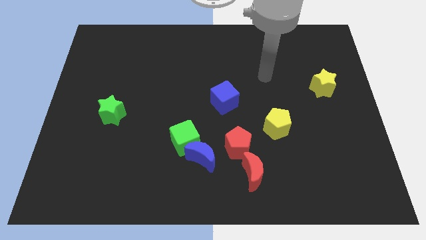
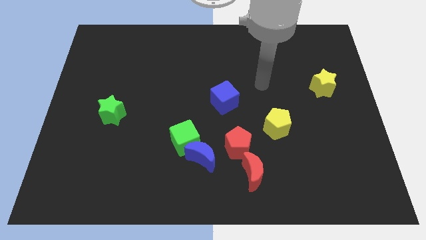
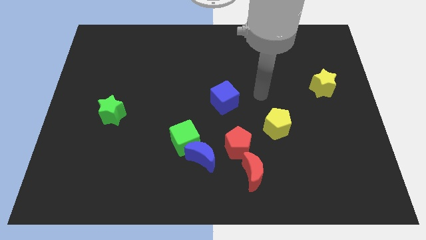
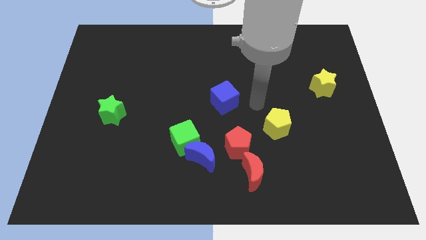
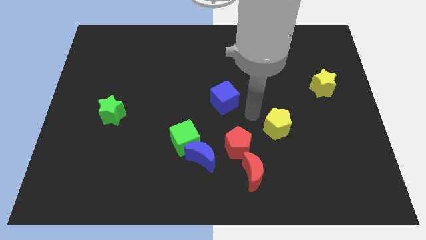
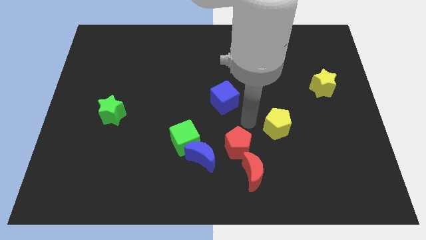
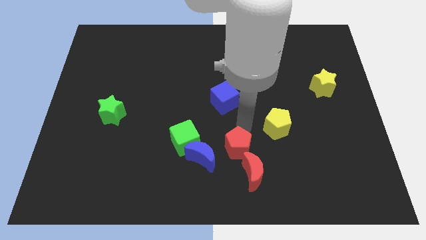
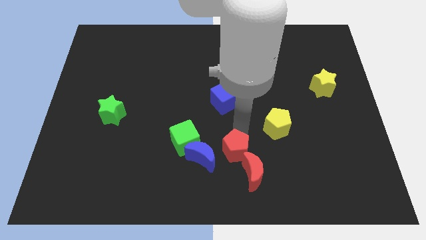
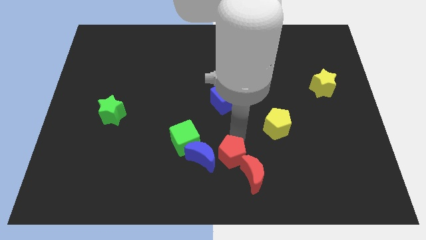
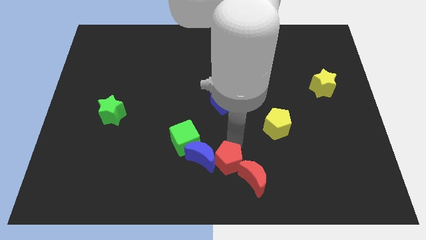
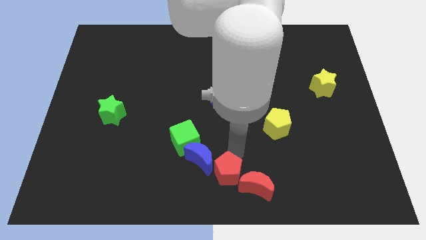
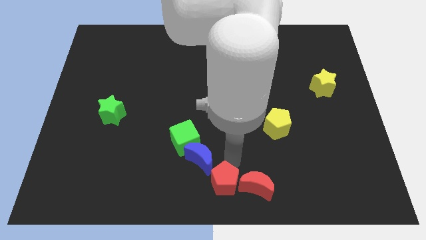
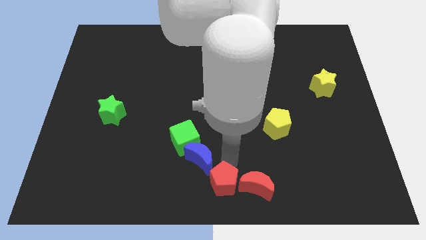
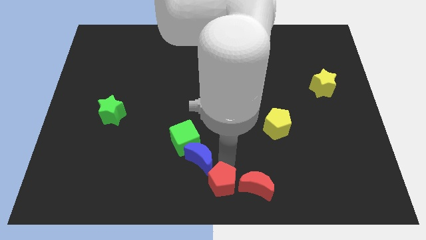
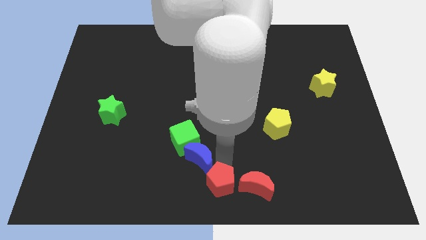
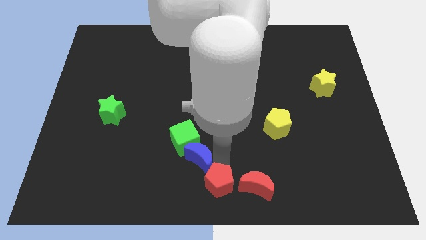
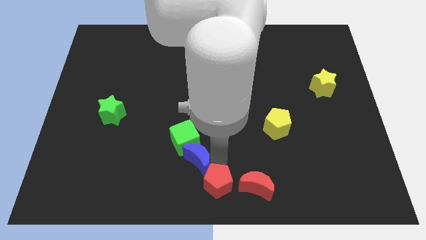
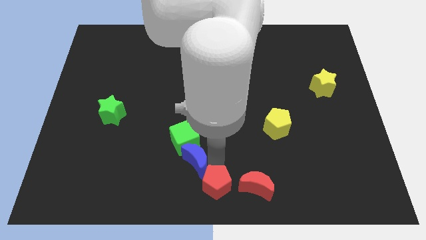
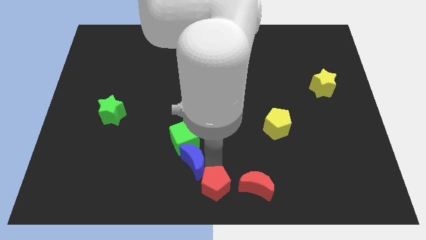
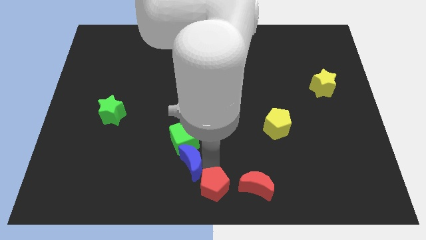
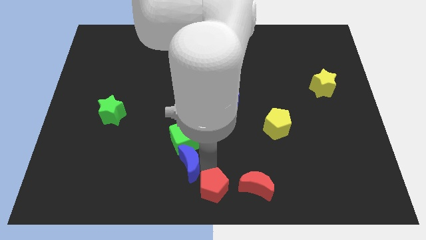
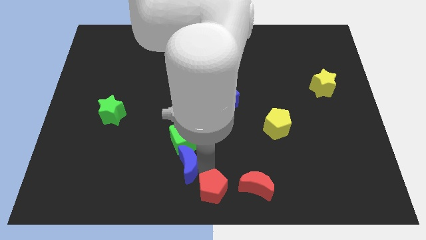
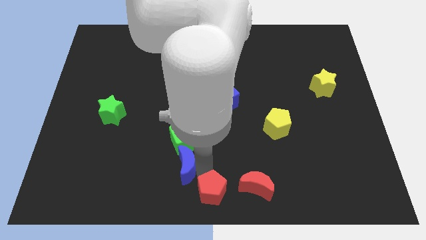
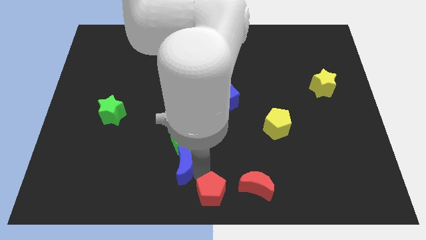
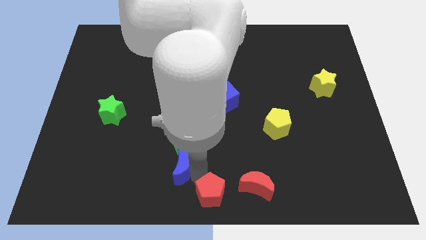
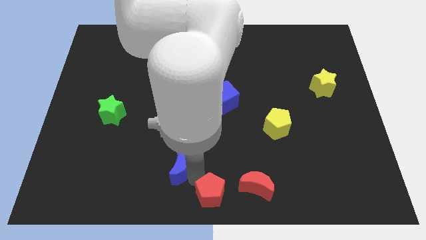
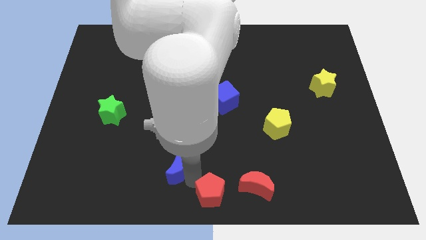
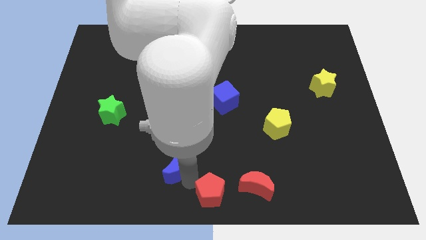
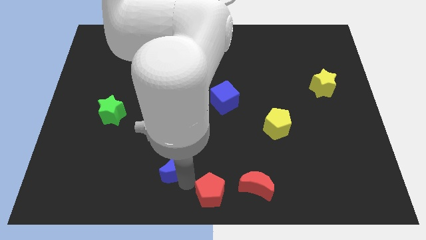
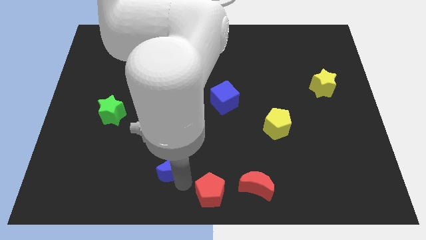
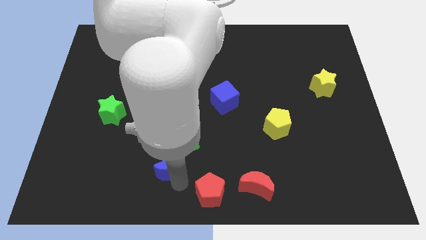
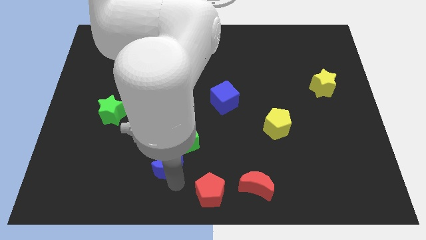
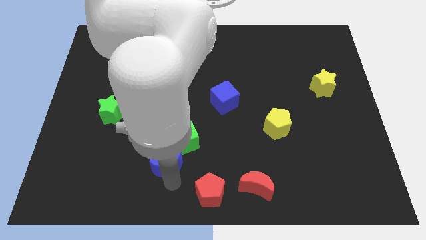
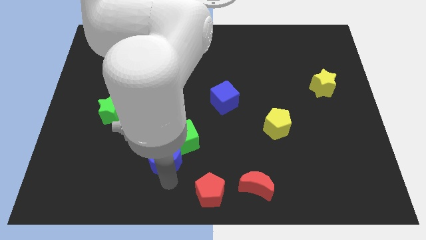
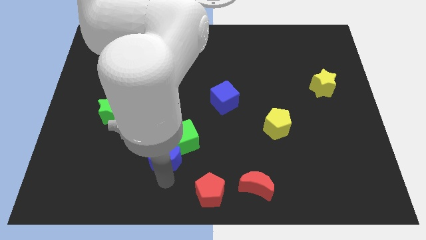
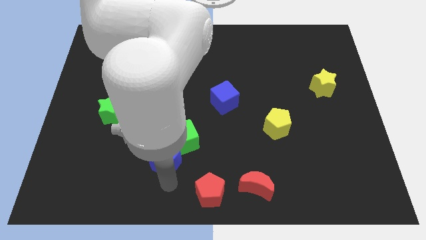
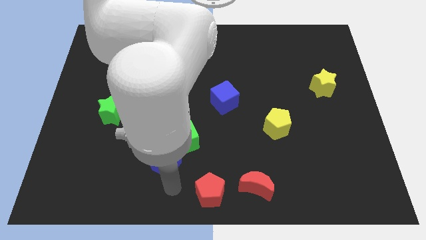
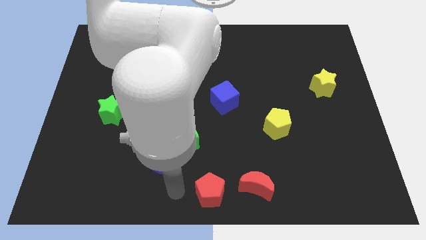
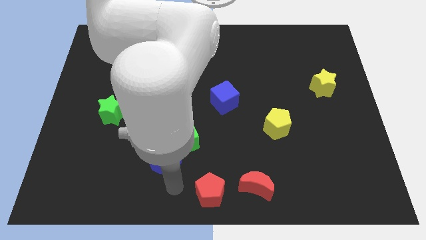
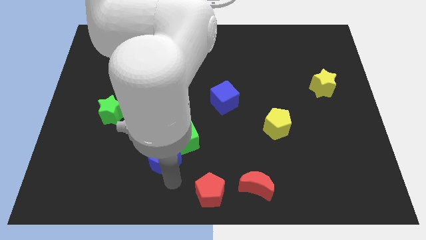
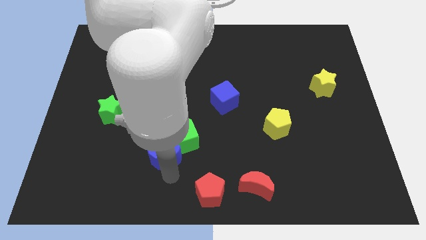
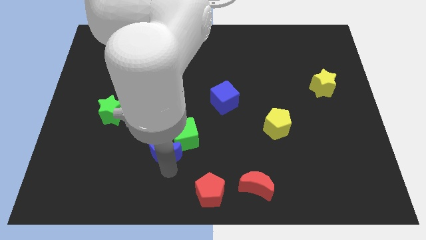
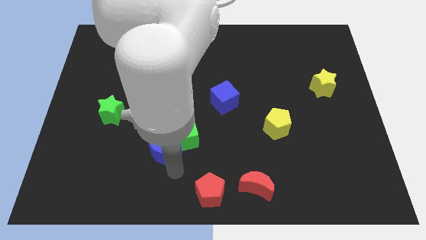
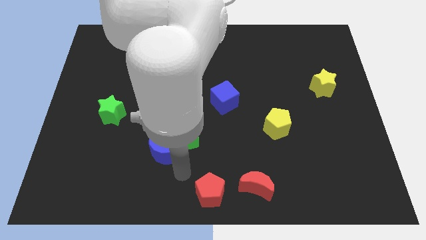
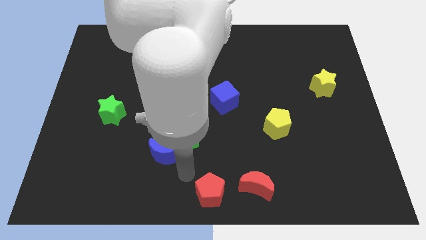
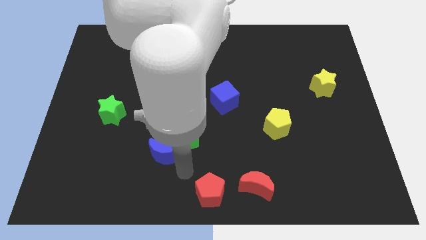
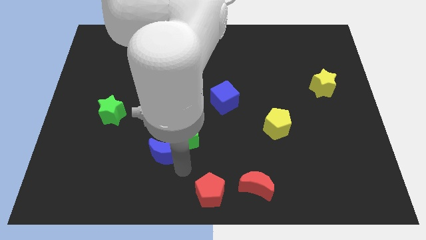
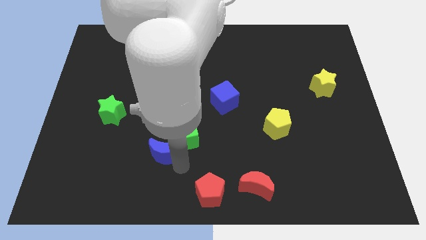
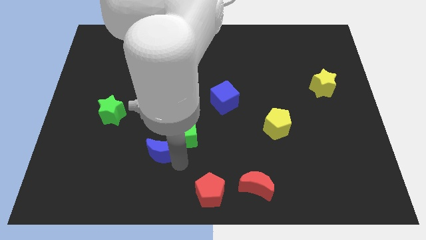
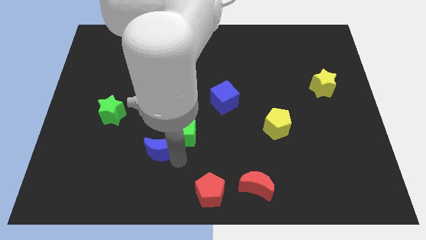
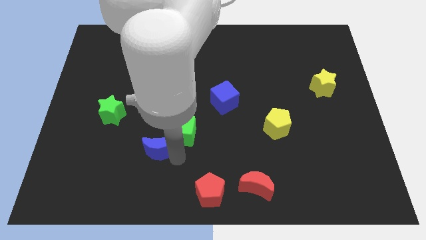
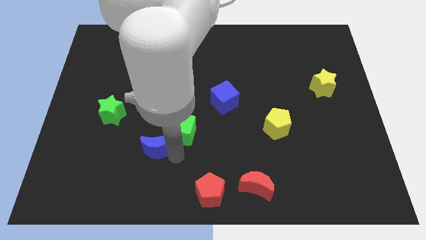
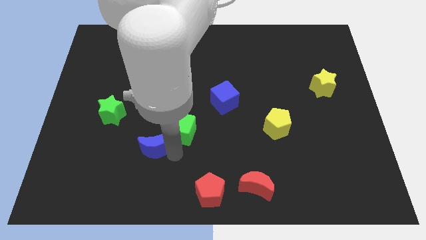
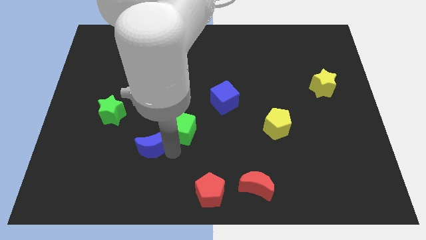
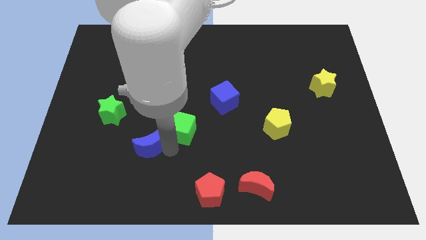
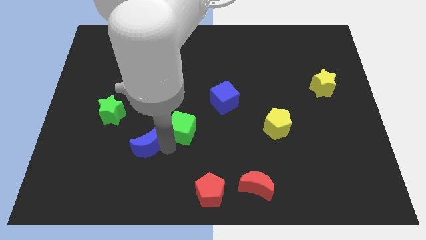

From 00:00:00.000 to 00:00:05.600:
push the blue moon diagonally down and to the right of the green star

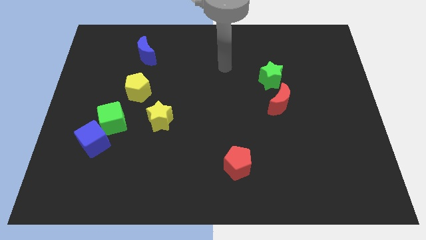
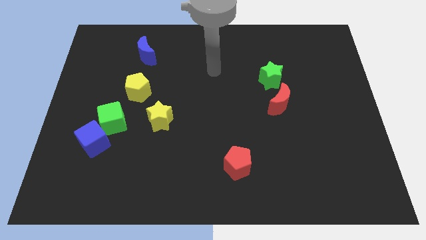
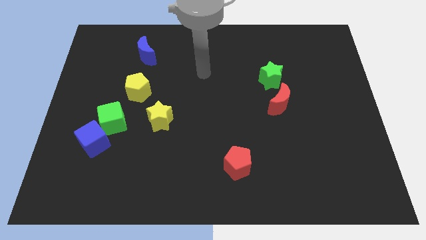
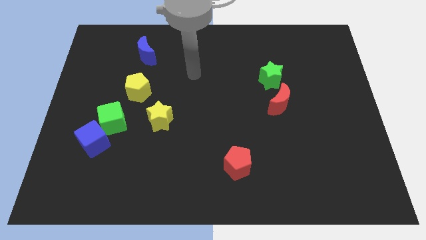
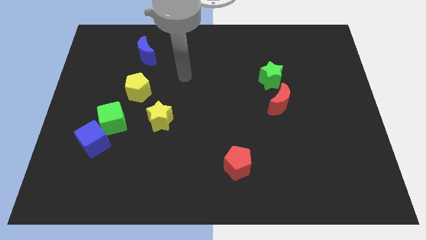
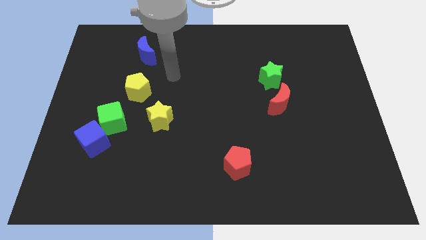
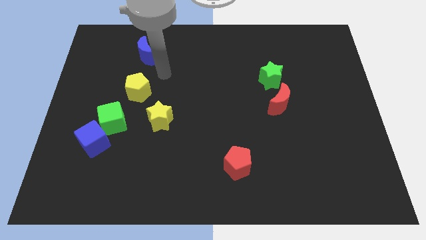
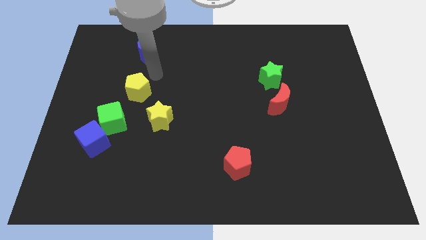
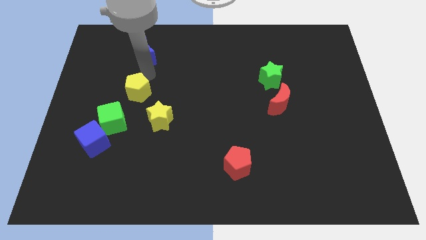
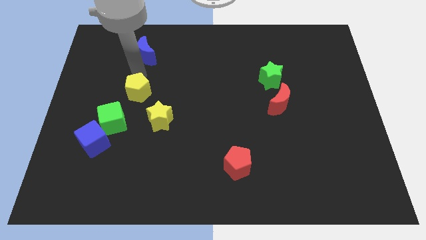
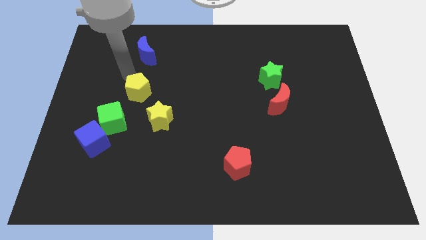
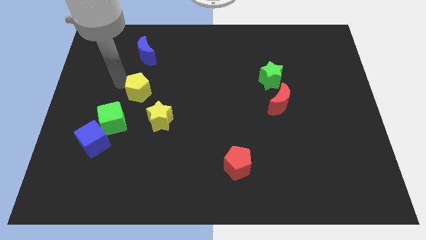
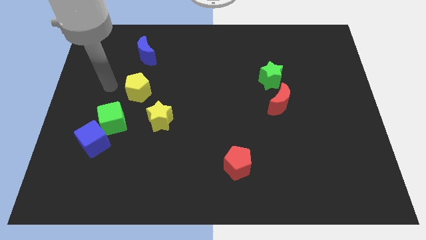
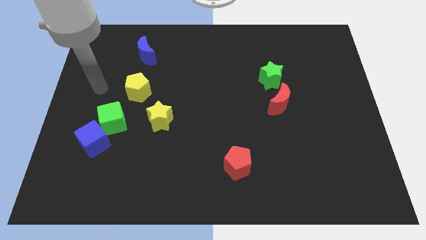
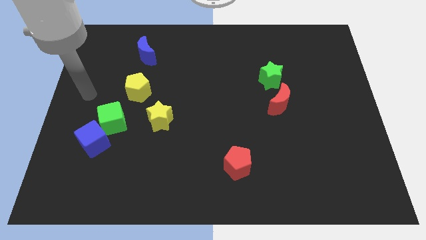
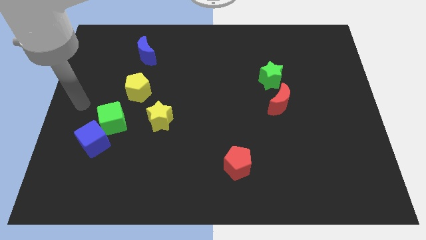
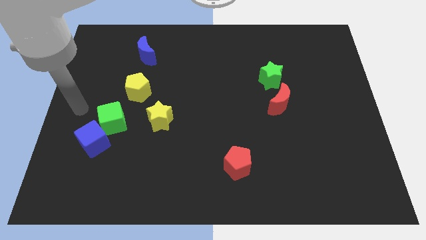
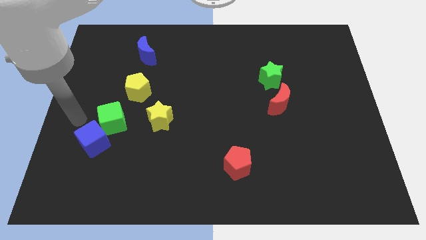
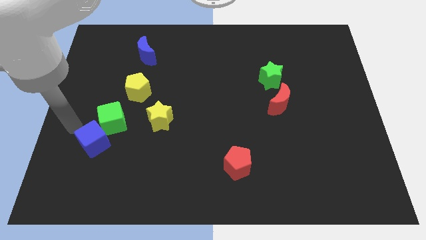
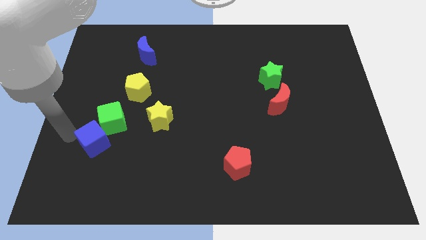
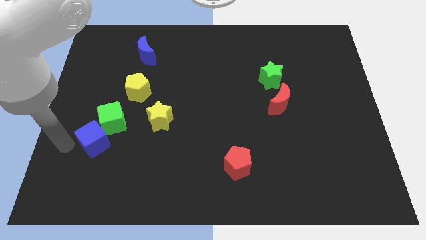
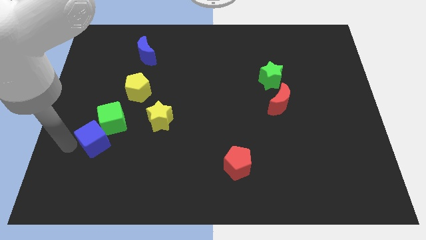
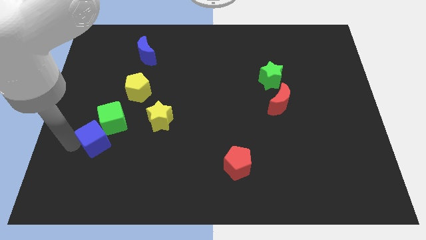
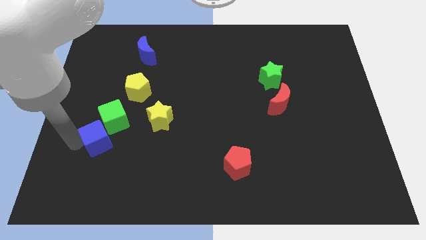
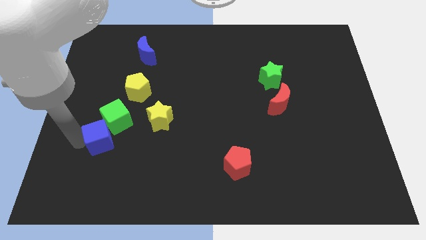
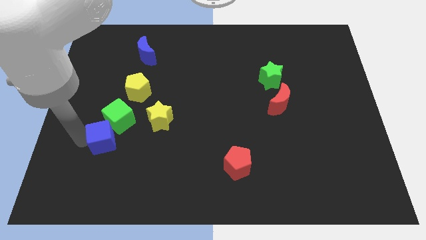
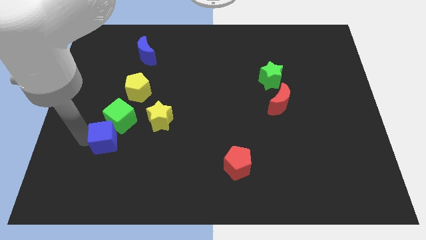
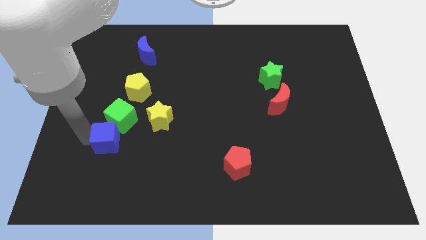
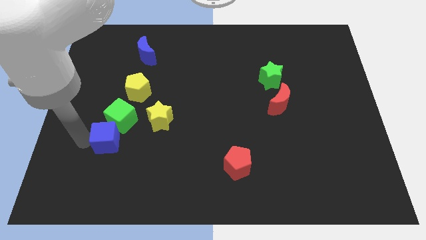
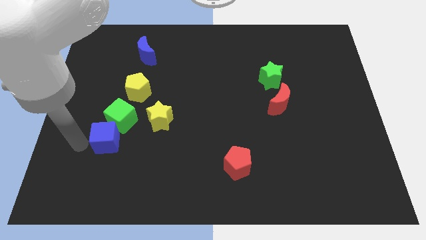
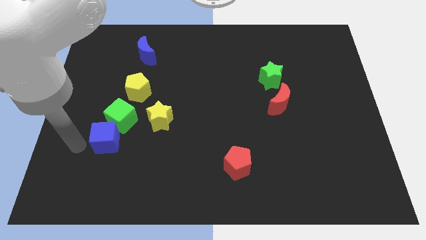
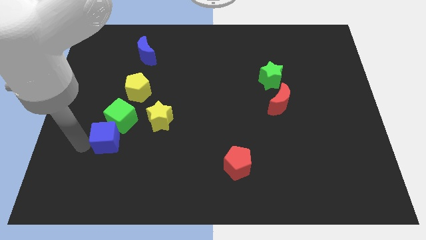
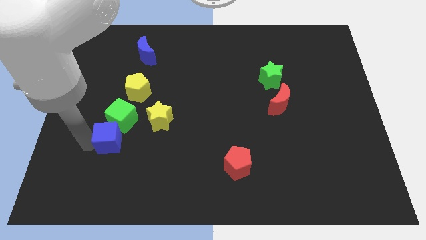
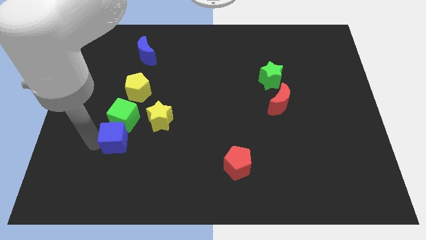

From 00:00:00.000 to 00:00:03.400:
slide the blue cube to the bottom of the yellow pentagon
